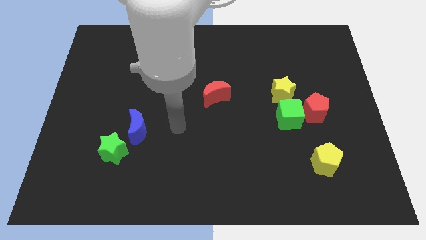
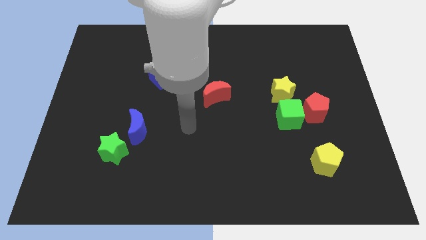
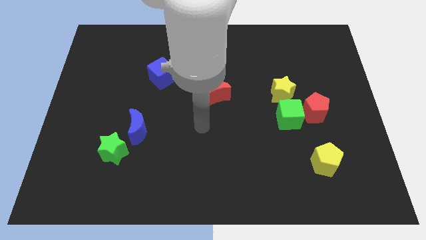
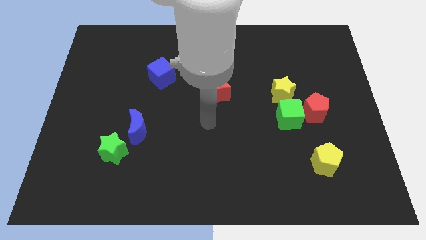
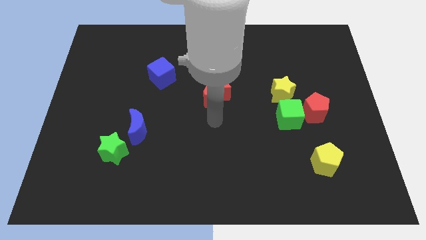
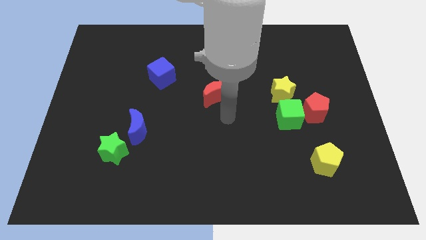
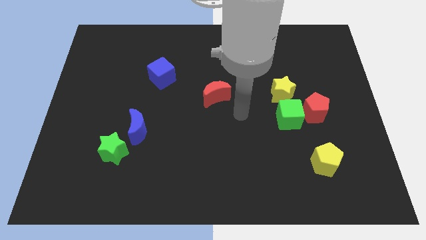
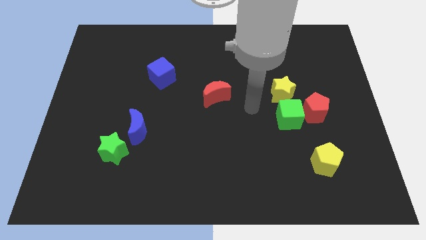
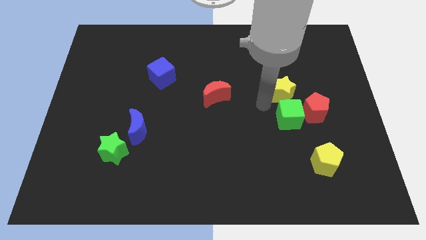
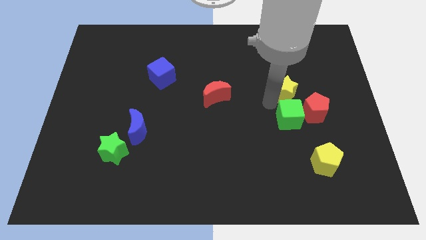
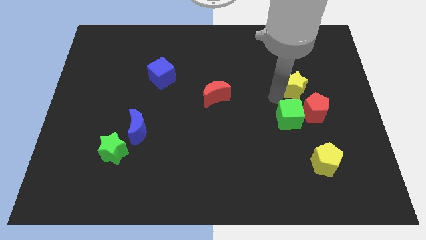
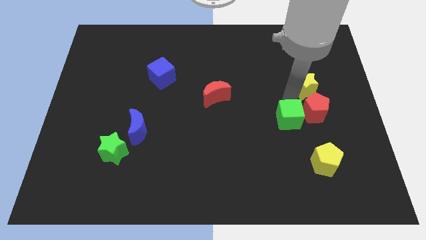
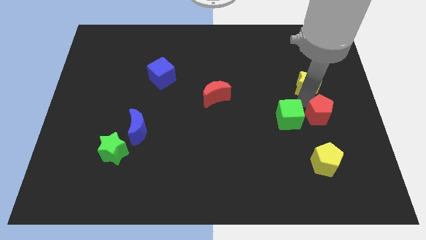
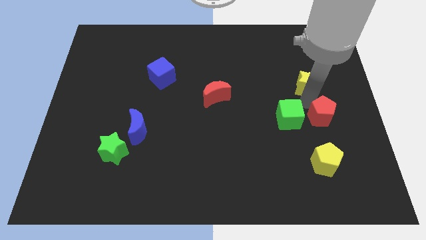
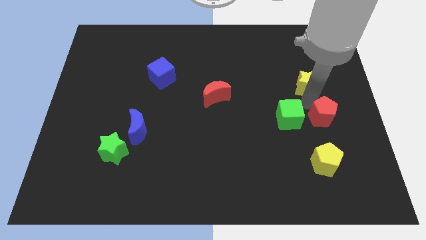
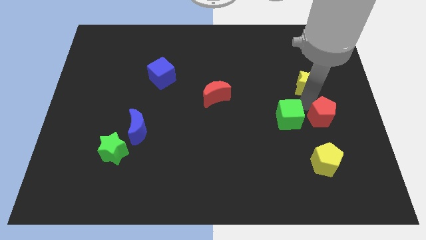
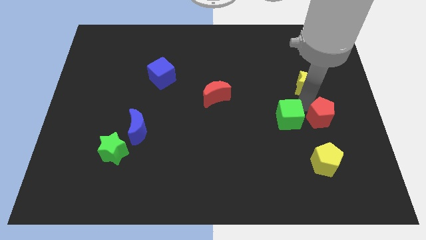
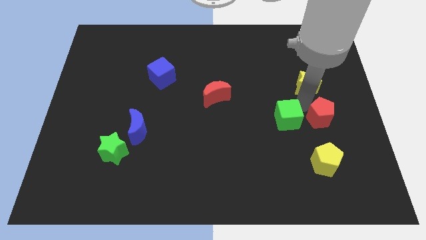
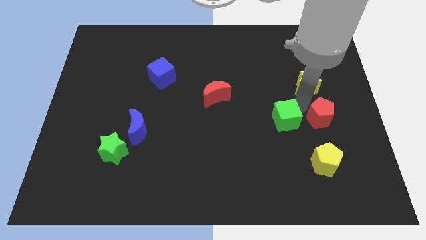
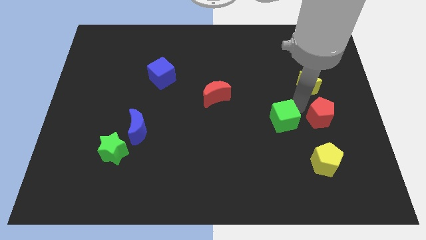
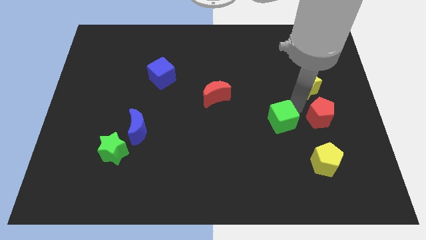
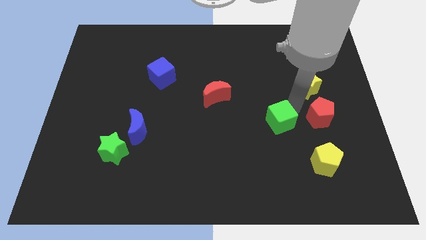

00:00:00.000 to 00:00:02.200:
move the green cube away from the red pentagon and yellow star

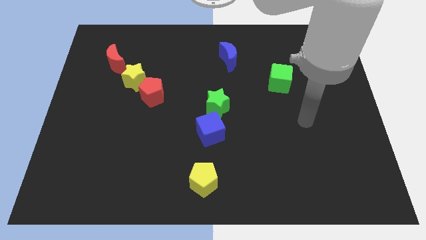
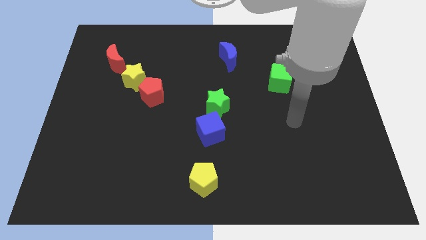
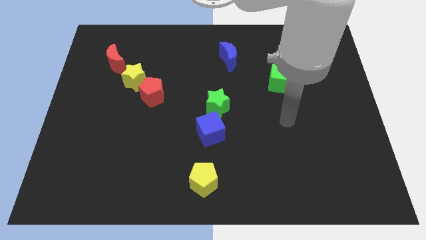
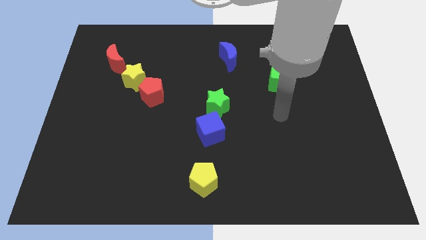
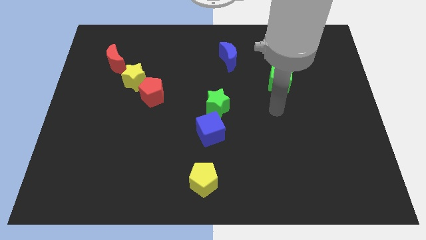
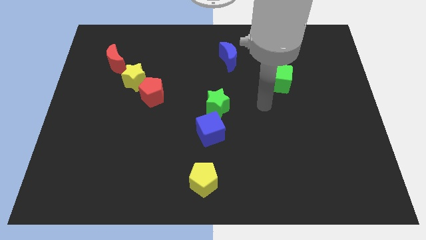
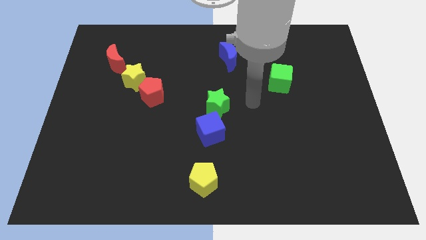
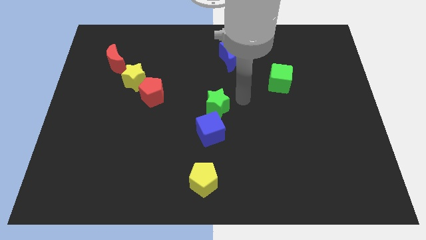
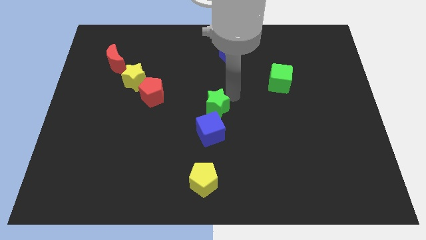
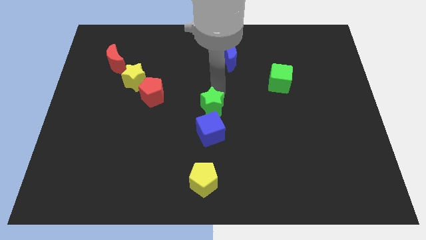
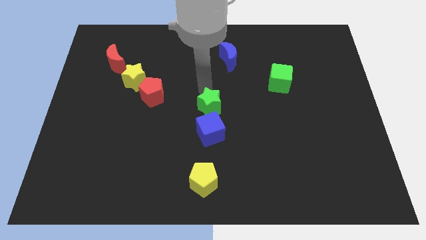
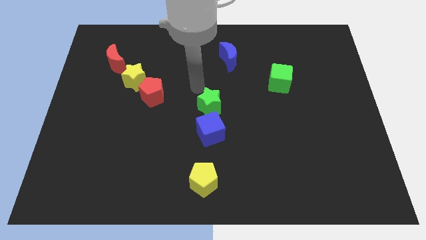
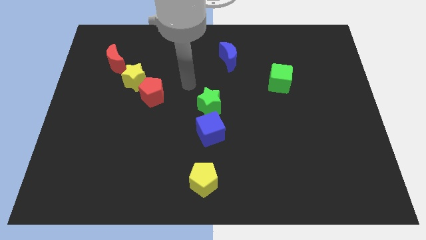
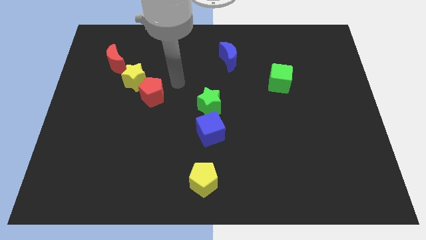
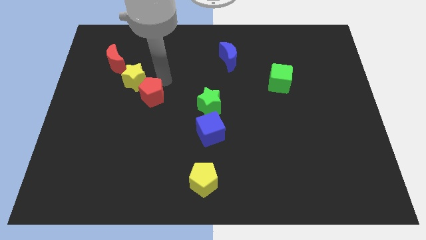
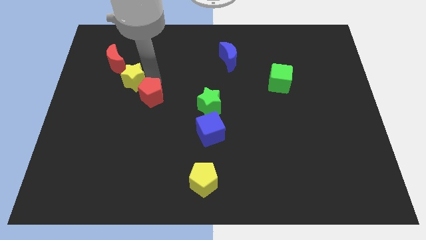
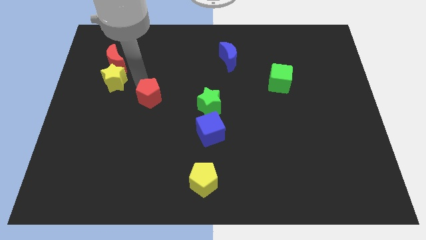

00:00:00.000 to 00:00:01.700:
move the red pentagon away from the yellow star

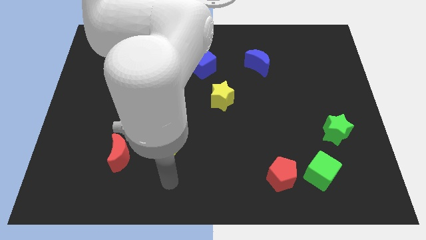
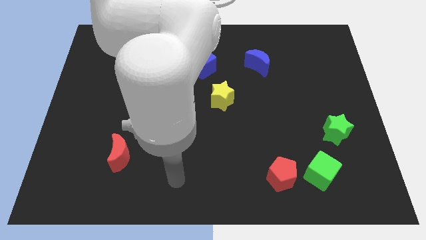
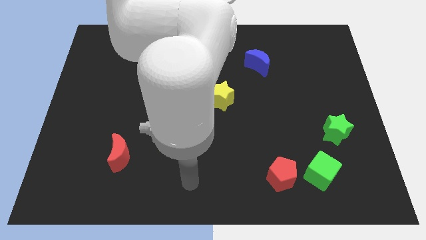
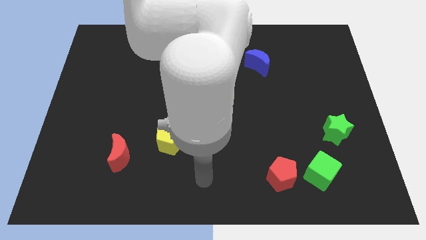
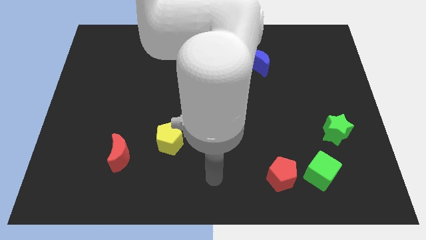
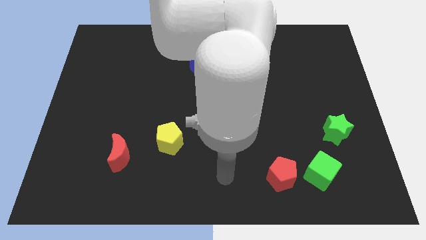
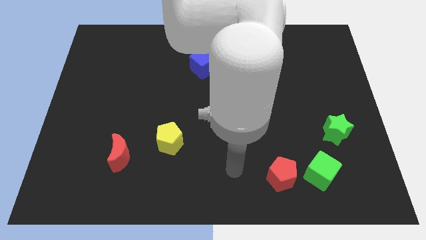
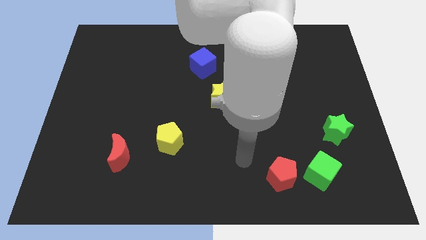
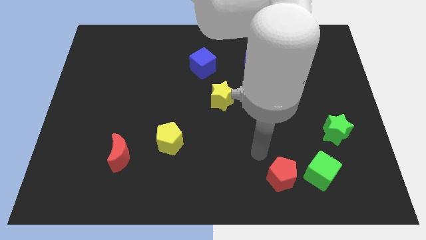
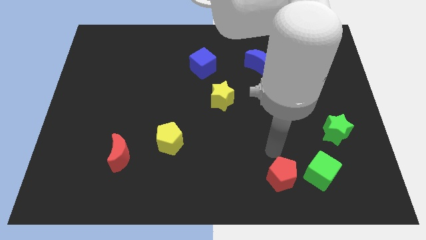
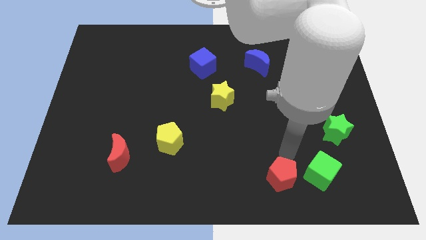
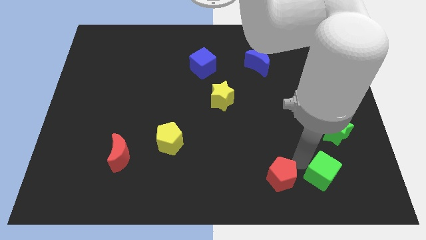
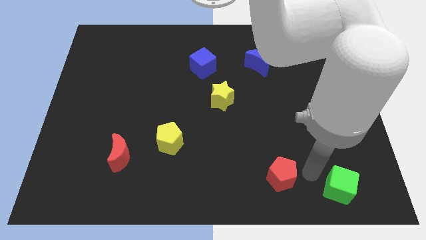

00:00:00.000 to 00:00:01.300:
separate the red pentagon from the green cube

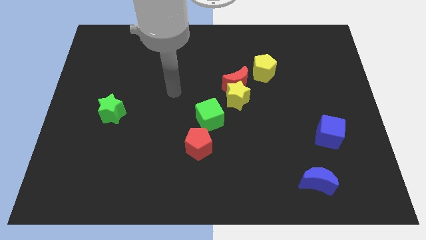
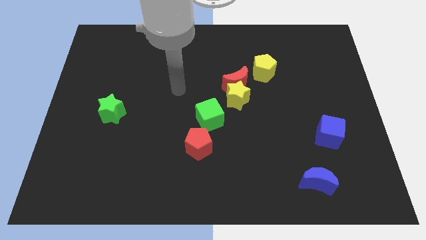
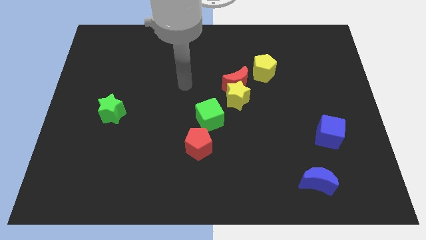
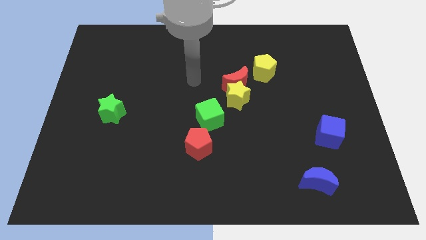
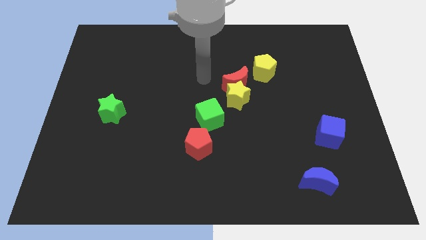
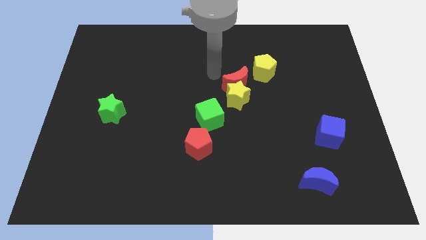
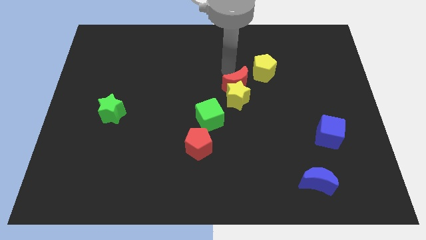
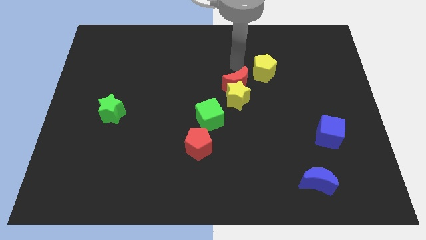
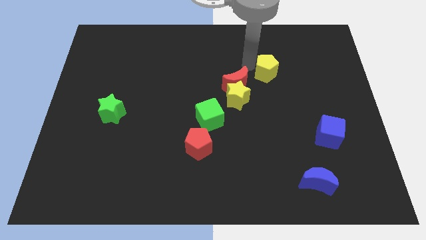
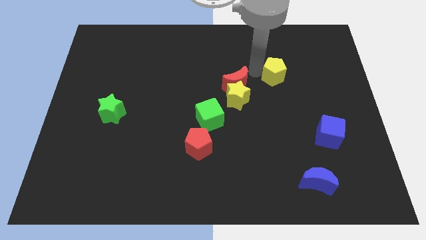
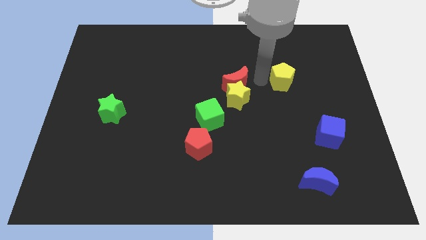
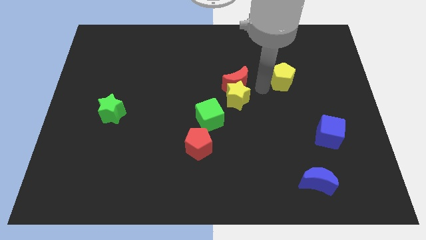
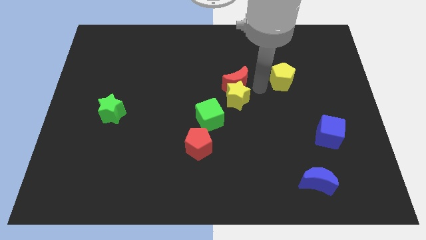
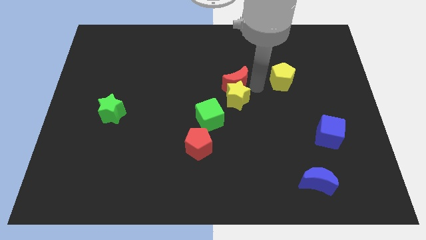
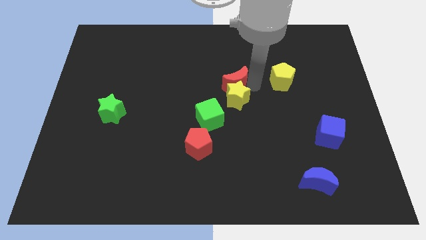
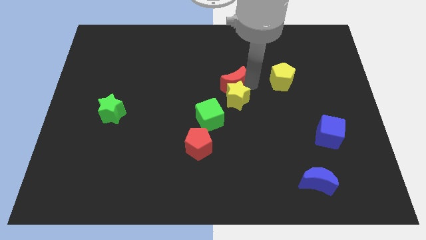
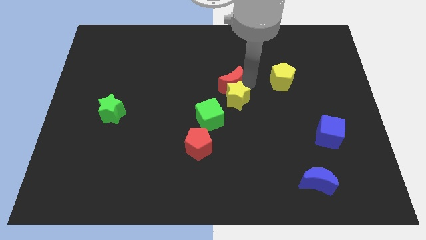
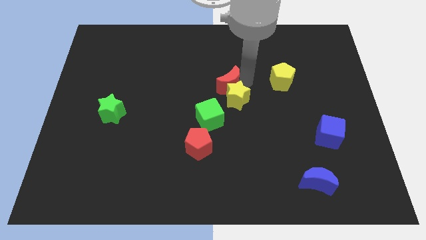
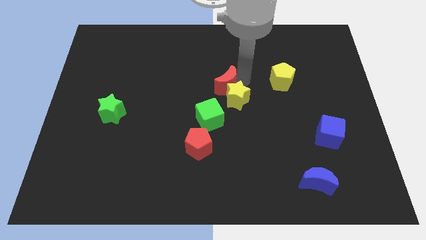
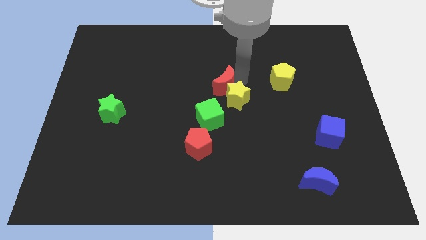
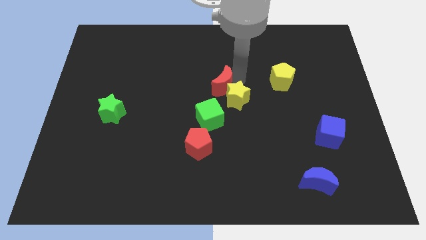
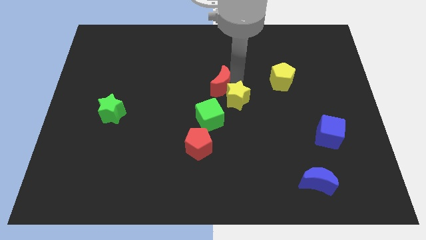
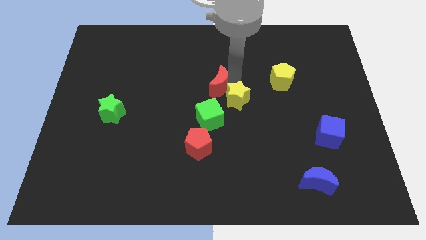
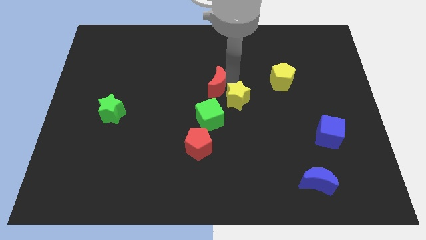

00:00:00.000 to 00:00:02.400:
move the red moon away from the yellow star and yellow pentagon

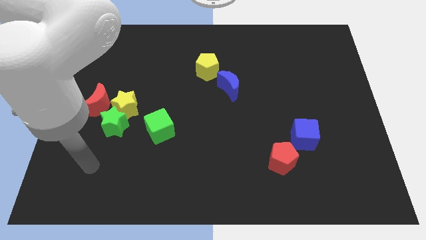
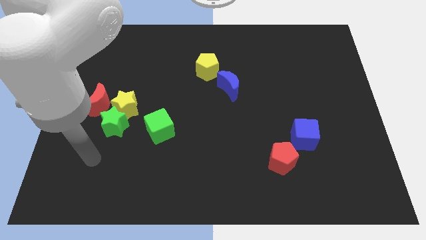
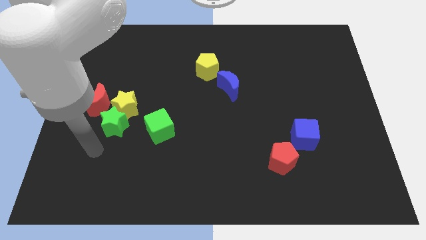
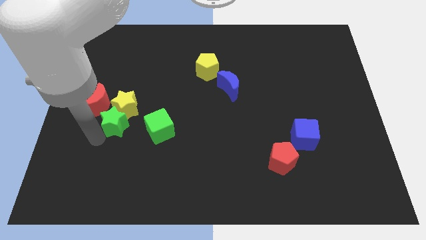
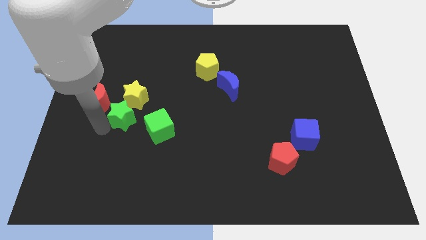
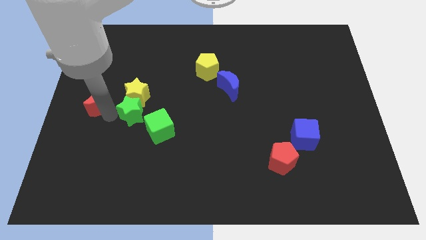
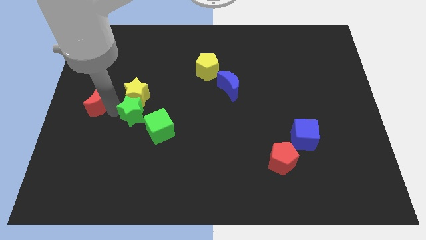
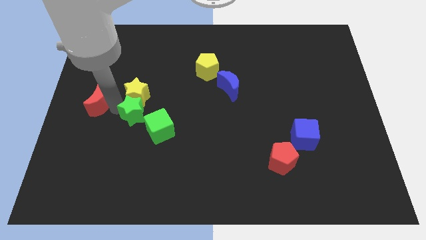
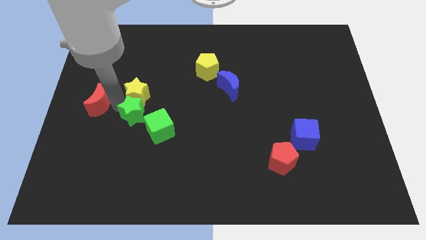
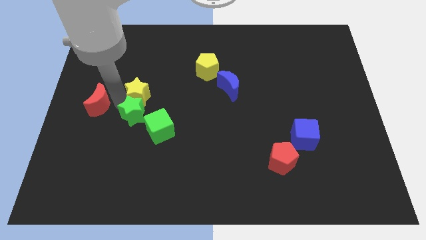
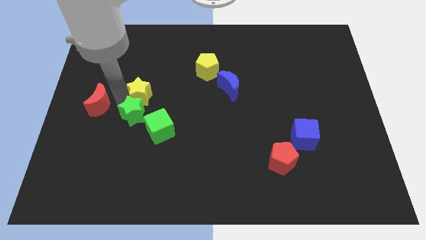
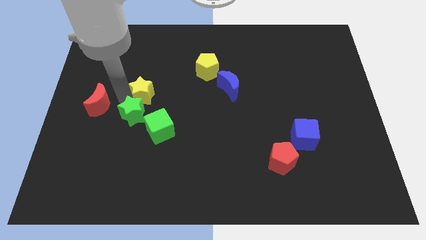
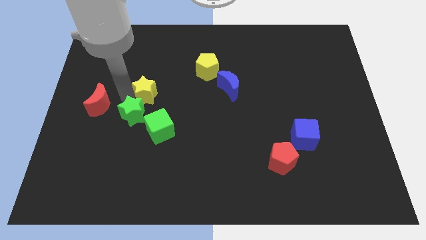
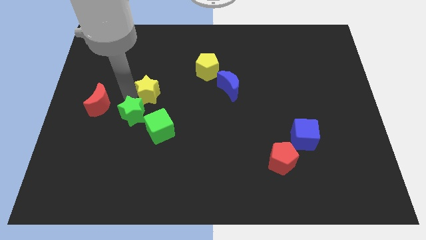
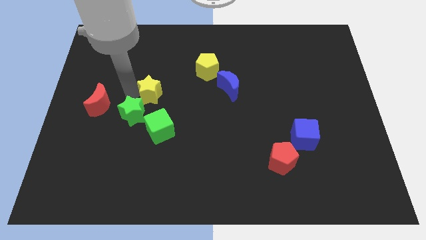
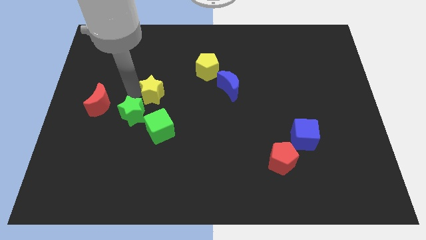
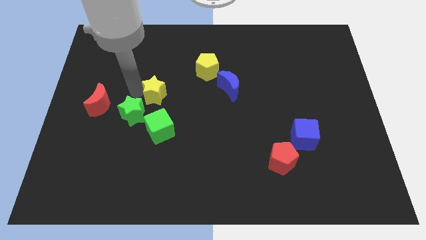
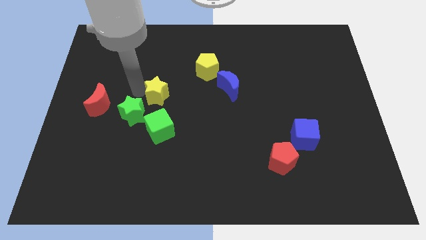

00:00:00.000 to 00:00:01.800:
move the yellow star away from the green star and red moon
